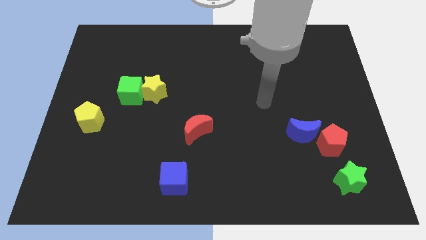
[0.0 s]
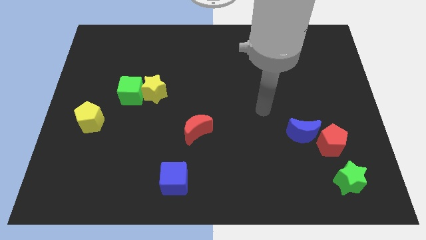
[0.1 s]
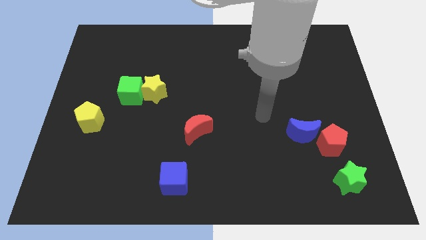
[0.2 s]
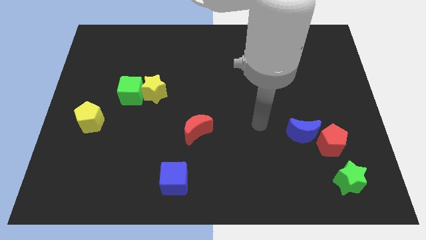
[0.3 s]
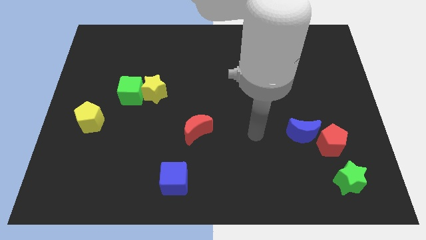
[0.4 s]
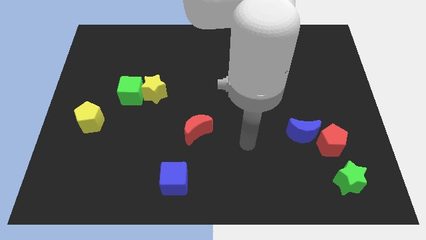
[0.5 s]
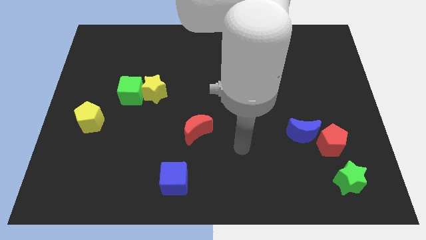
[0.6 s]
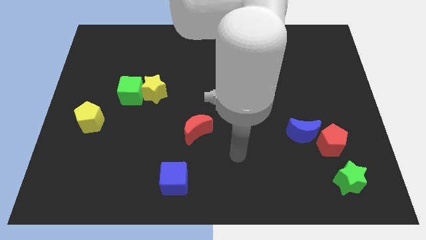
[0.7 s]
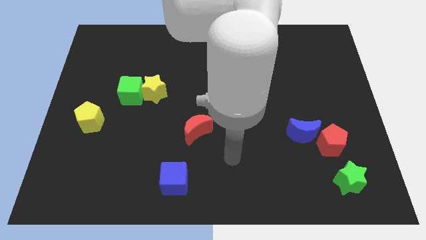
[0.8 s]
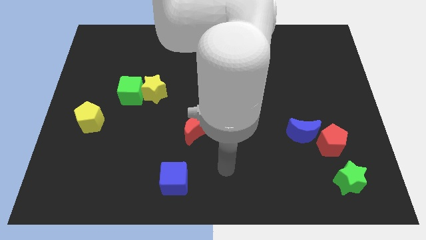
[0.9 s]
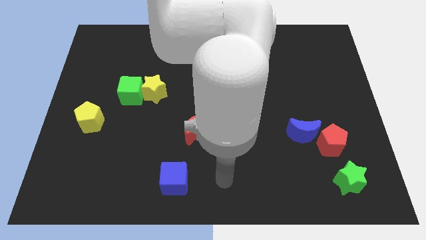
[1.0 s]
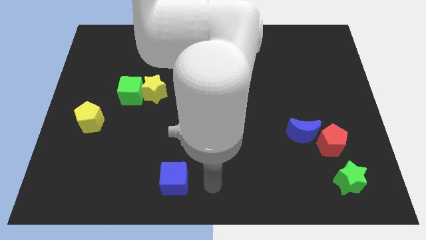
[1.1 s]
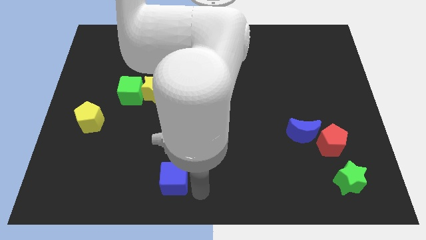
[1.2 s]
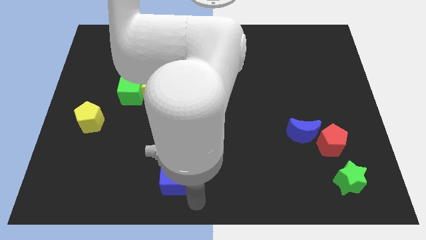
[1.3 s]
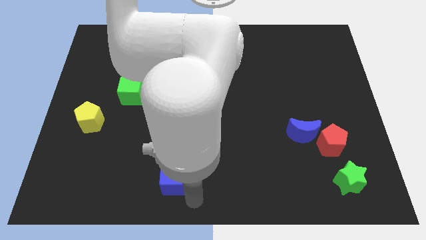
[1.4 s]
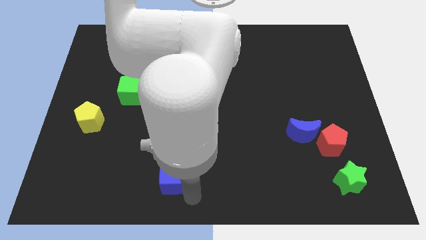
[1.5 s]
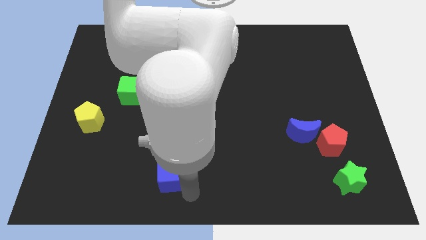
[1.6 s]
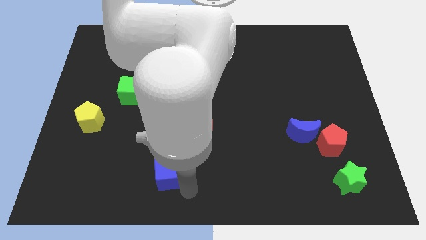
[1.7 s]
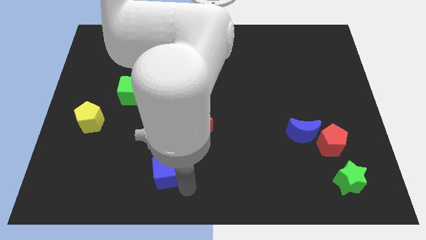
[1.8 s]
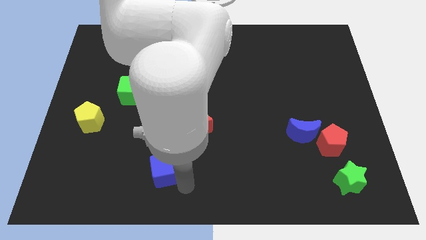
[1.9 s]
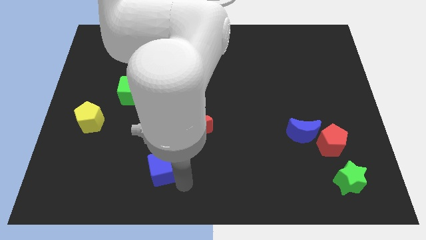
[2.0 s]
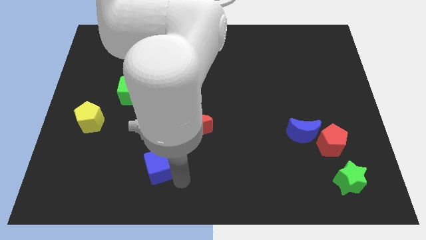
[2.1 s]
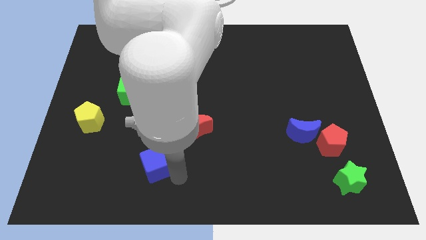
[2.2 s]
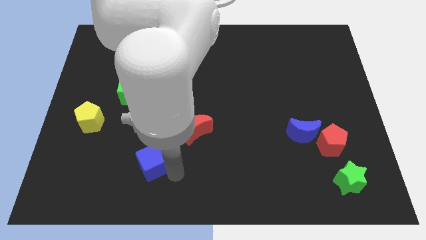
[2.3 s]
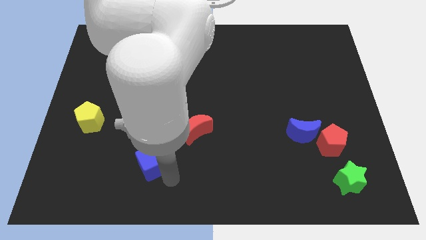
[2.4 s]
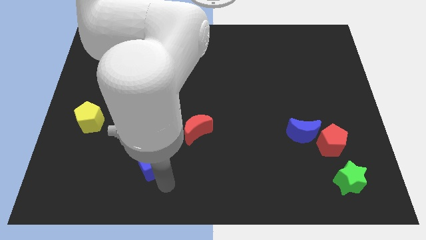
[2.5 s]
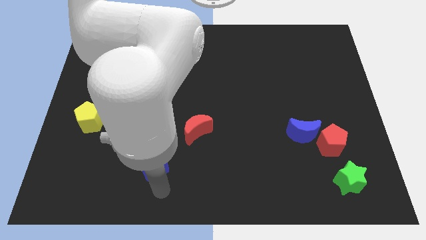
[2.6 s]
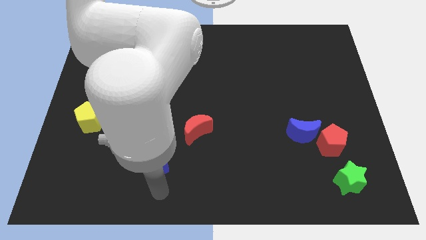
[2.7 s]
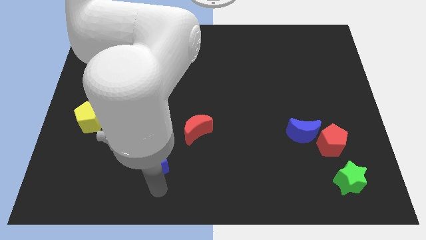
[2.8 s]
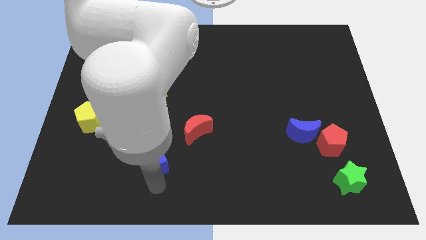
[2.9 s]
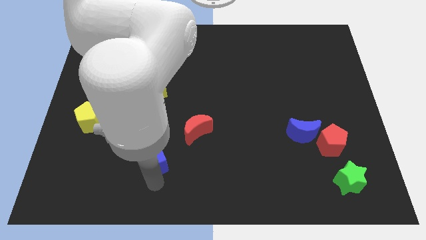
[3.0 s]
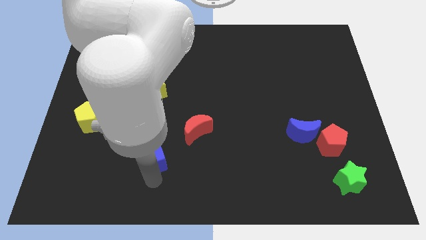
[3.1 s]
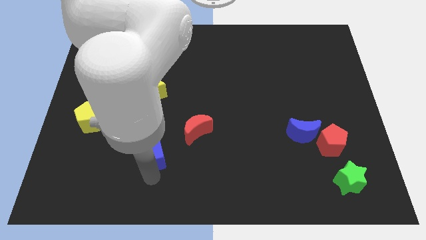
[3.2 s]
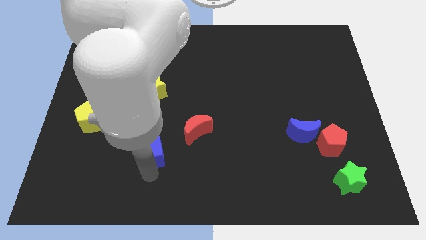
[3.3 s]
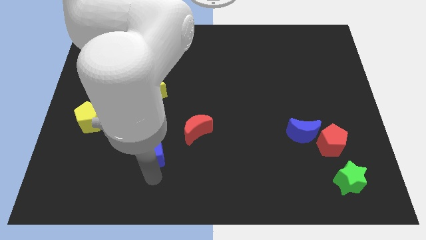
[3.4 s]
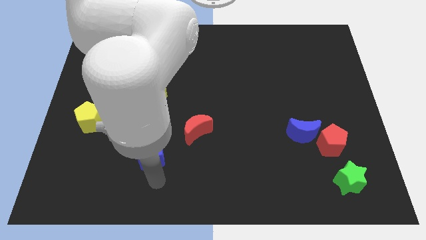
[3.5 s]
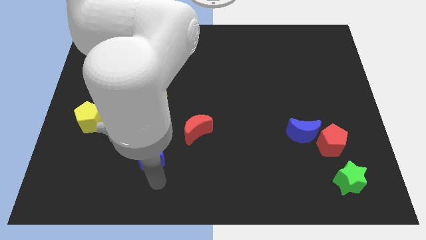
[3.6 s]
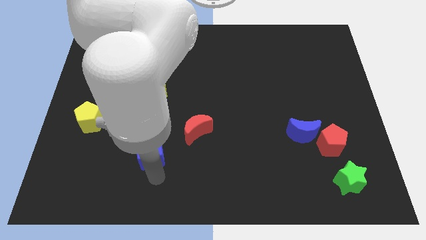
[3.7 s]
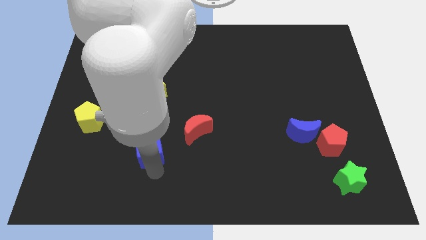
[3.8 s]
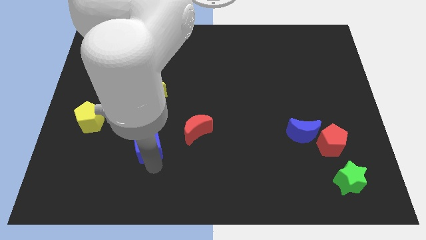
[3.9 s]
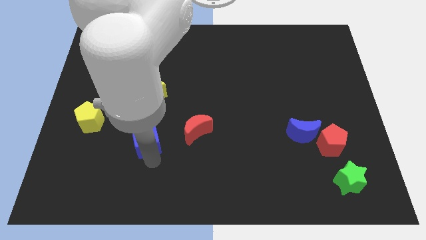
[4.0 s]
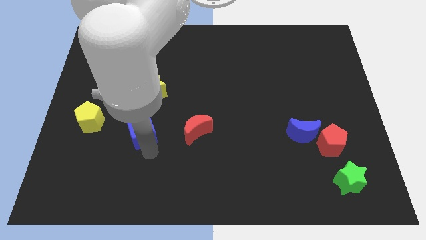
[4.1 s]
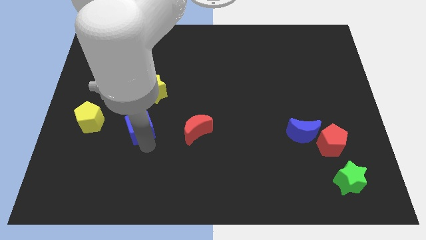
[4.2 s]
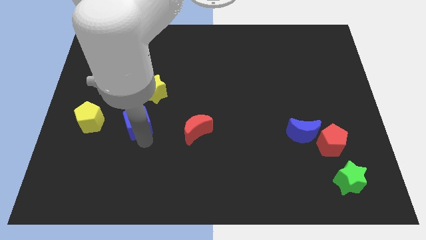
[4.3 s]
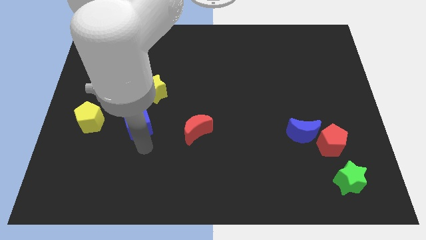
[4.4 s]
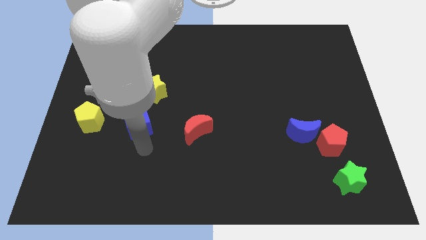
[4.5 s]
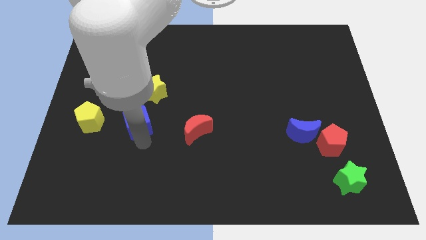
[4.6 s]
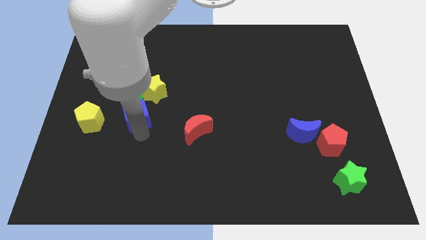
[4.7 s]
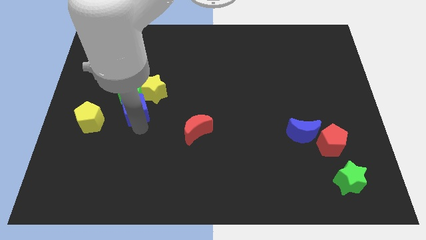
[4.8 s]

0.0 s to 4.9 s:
move the blue cube close to the green cube

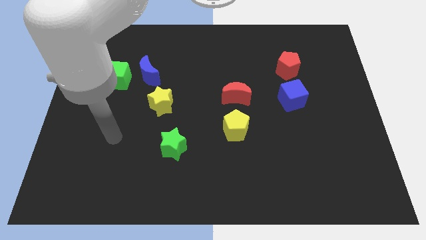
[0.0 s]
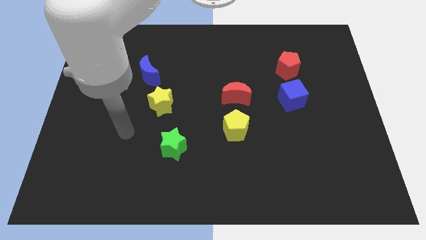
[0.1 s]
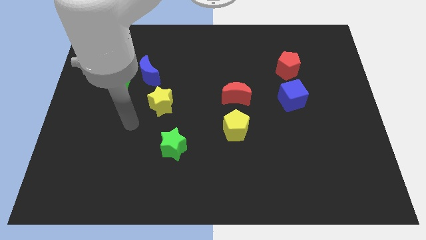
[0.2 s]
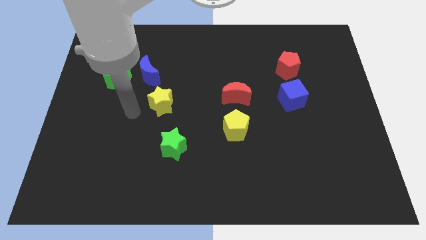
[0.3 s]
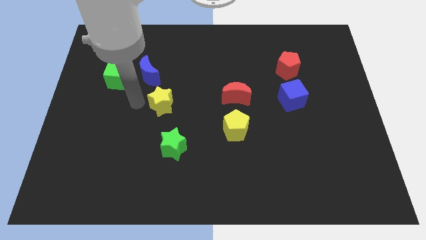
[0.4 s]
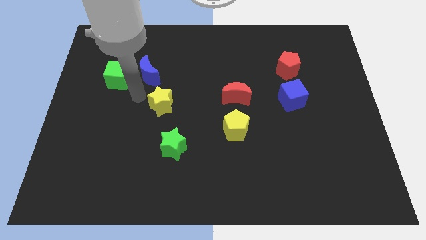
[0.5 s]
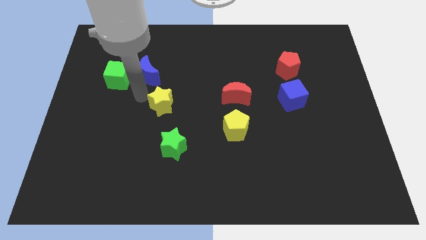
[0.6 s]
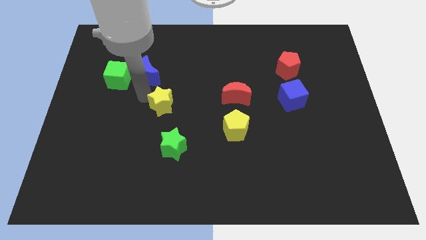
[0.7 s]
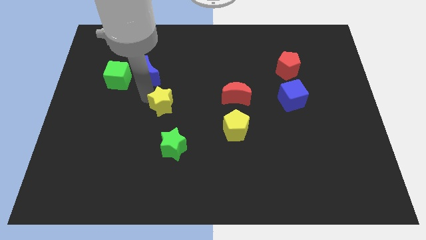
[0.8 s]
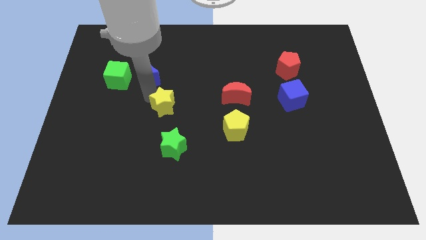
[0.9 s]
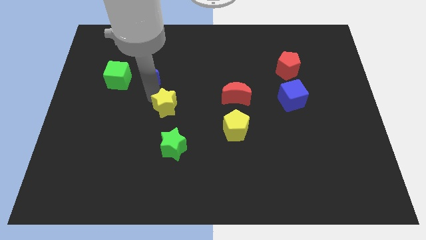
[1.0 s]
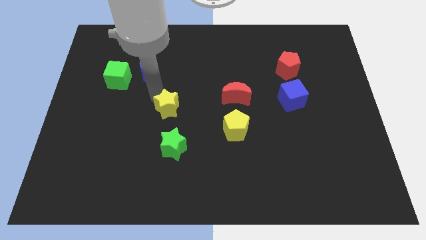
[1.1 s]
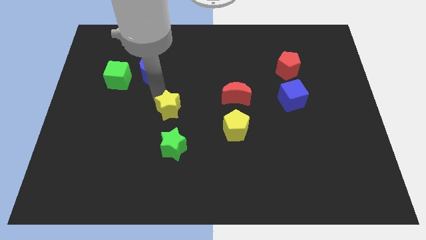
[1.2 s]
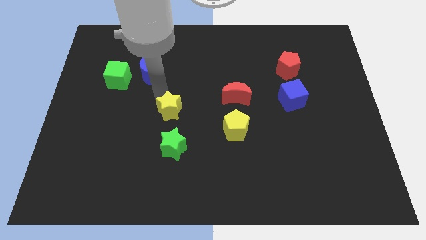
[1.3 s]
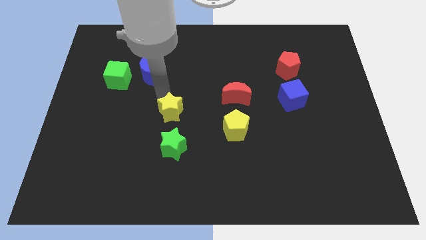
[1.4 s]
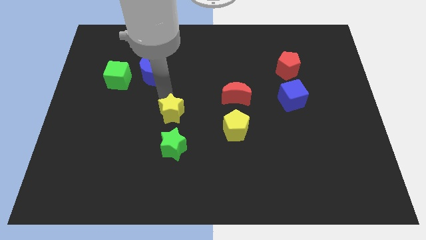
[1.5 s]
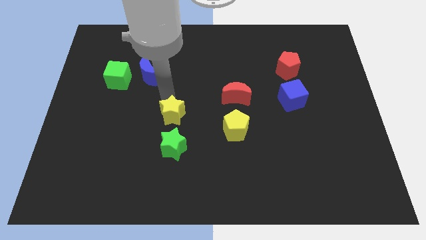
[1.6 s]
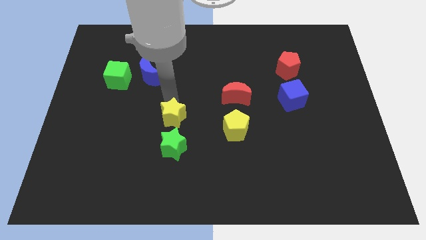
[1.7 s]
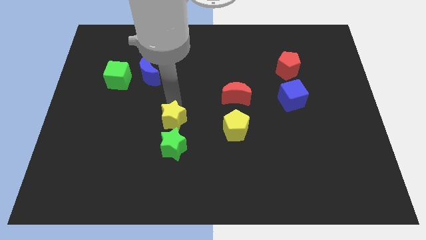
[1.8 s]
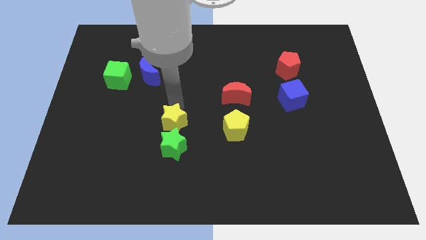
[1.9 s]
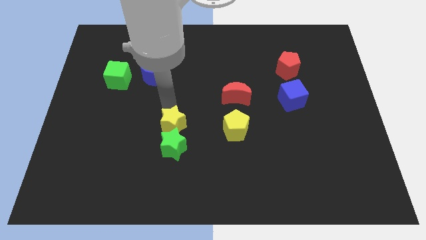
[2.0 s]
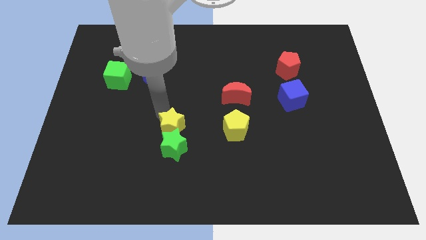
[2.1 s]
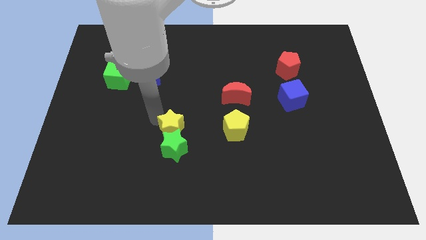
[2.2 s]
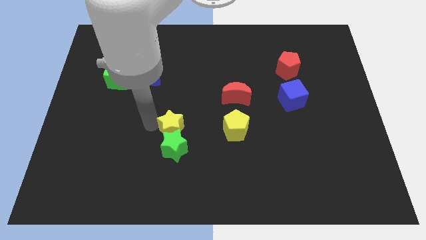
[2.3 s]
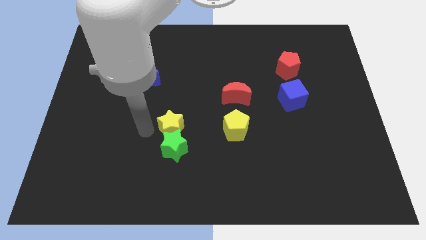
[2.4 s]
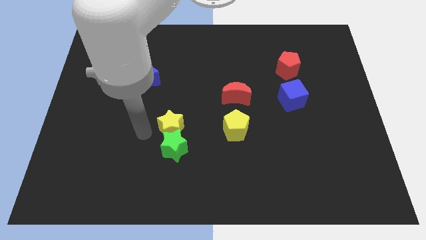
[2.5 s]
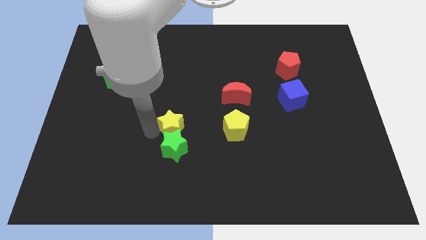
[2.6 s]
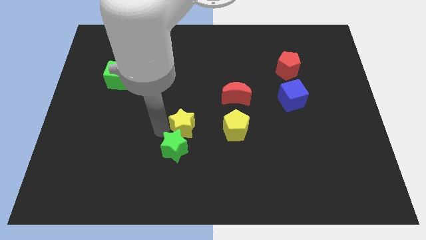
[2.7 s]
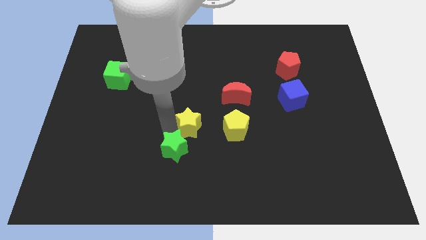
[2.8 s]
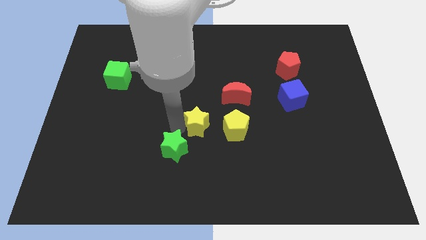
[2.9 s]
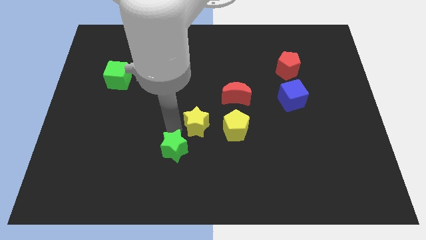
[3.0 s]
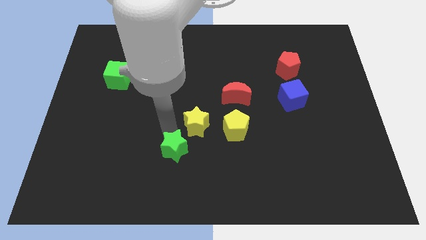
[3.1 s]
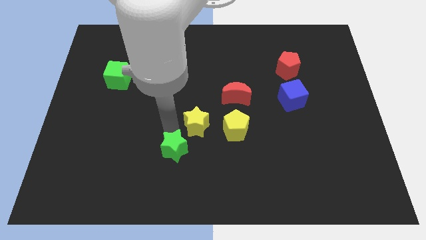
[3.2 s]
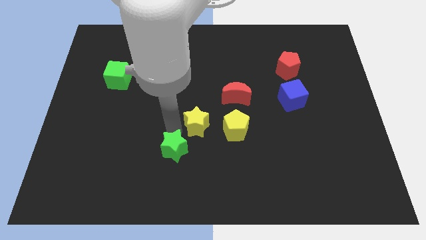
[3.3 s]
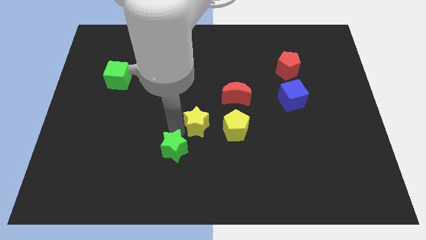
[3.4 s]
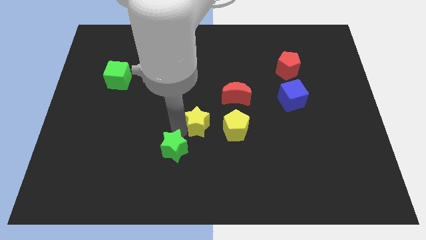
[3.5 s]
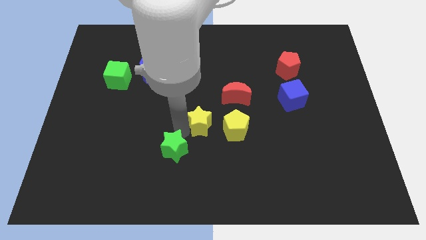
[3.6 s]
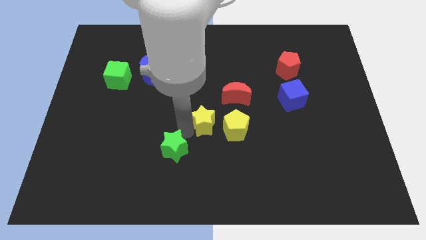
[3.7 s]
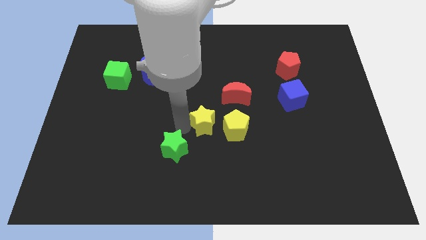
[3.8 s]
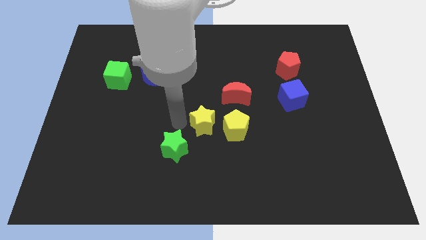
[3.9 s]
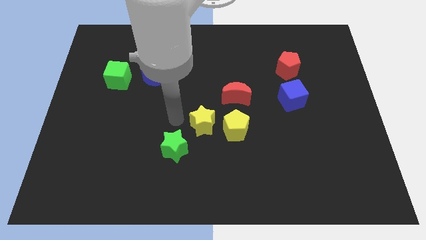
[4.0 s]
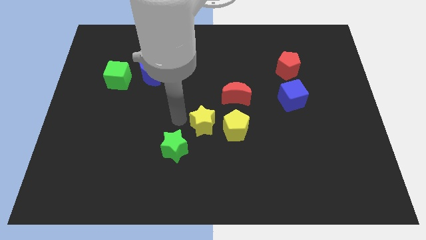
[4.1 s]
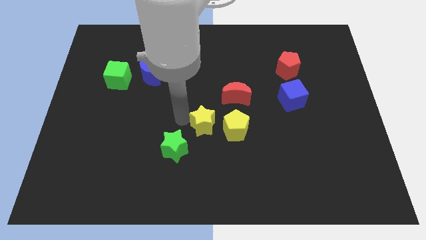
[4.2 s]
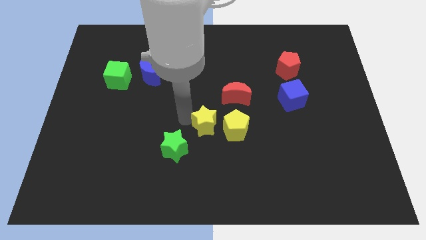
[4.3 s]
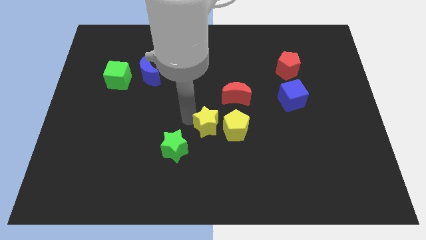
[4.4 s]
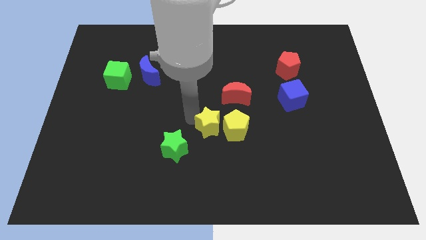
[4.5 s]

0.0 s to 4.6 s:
move the yellow star close to the yellow pentagon
